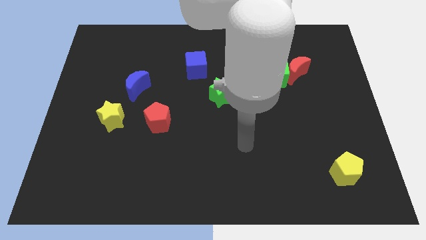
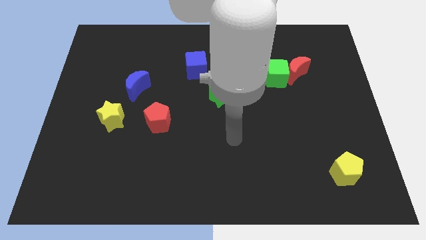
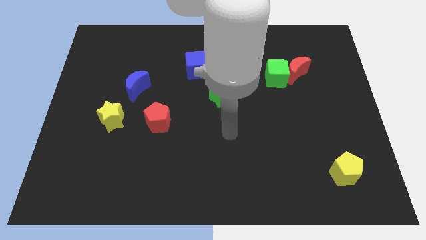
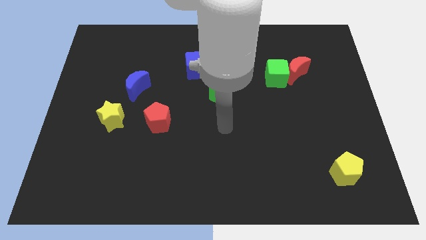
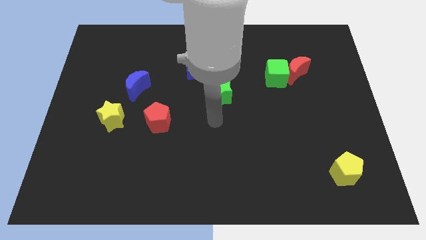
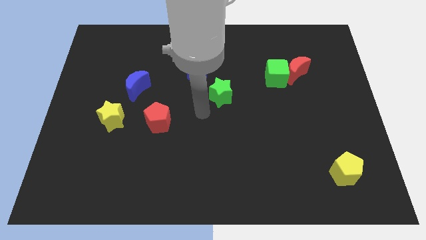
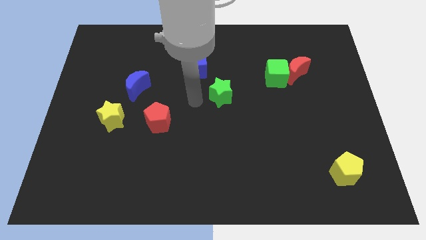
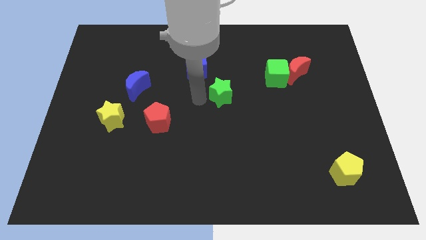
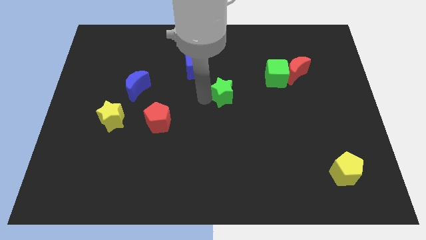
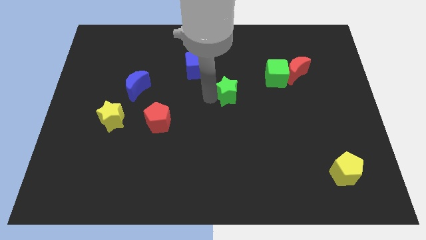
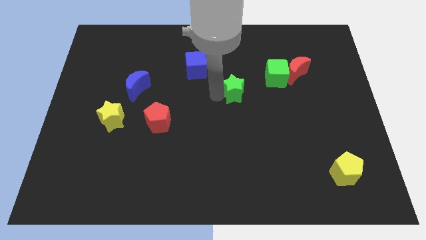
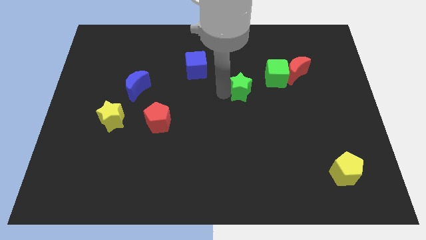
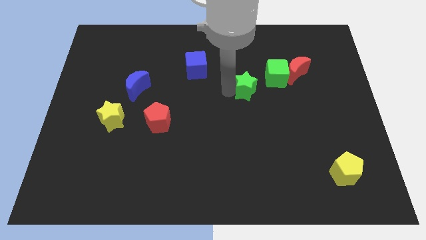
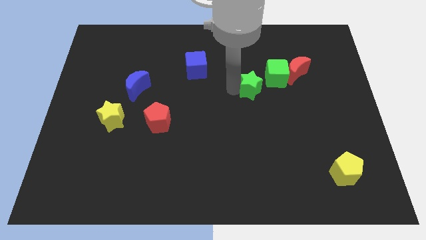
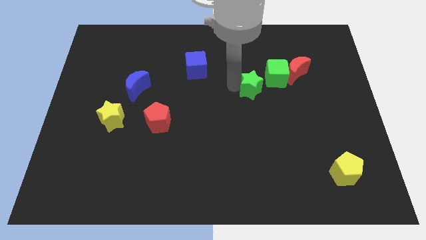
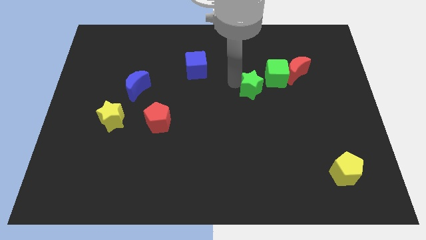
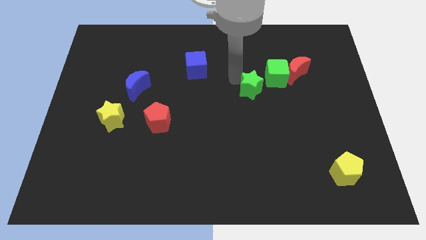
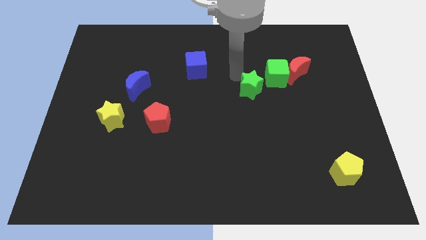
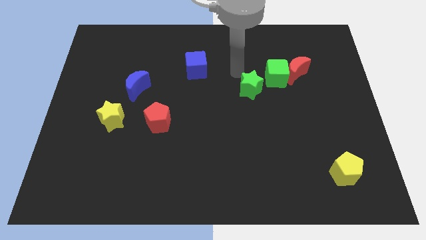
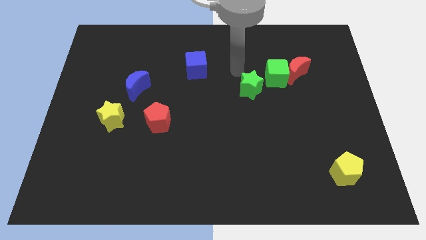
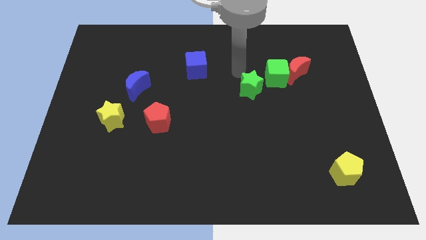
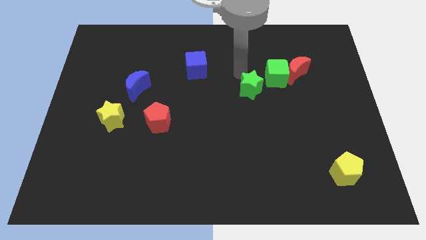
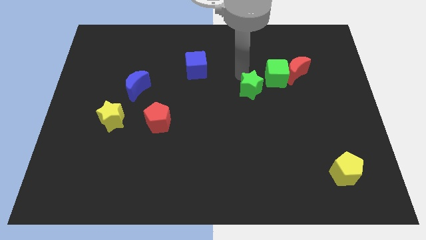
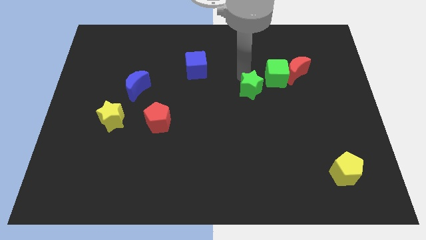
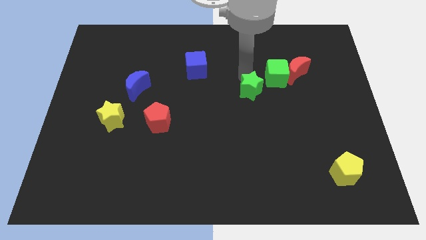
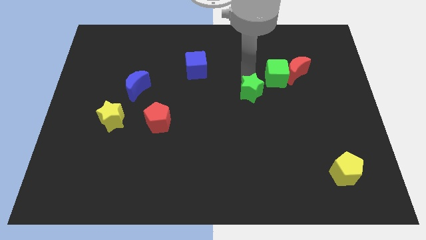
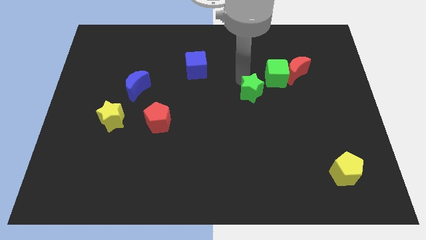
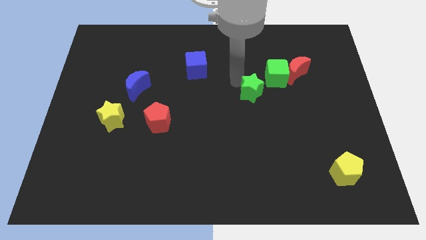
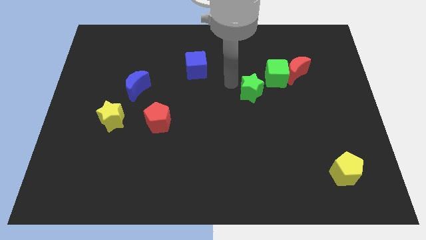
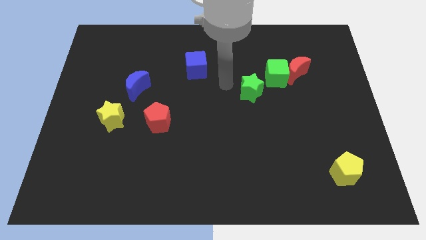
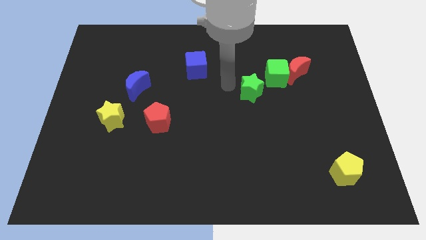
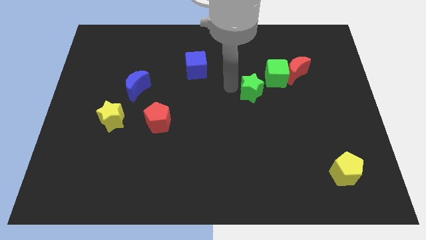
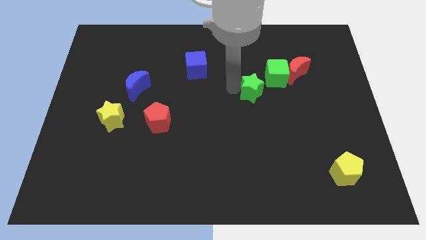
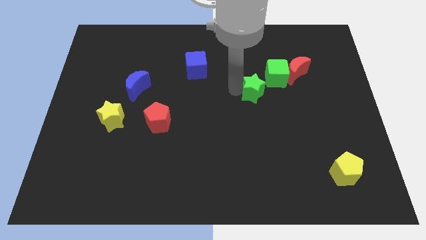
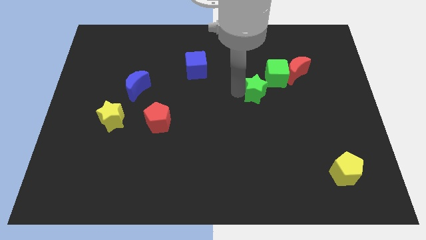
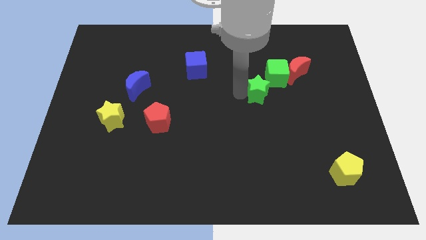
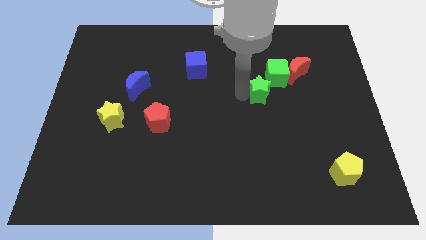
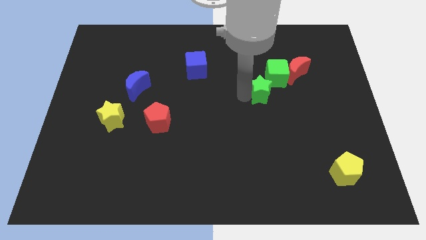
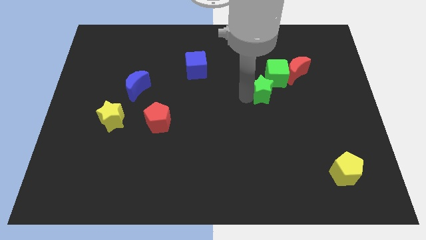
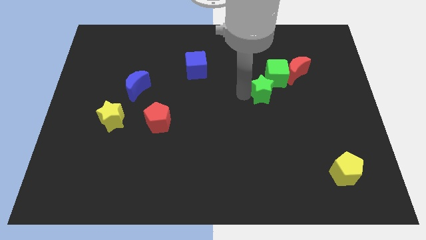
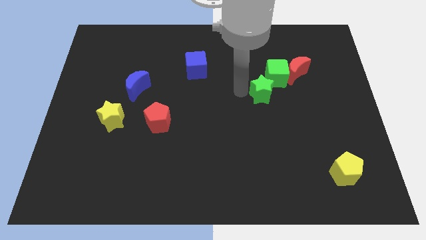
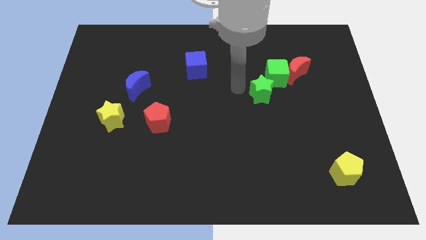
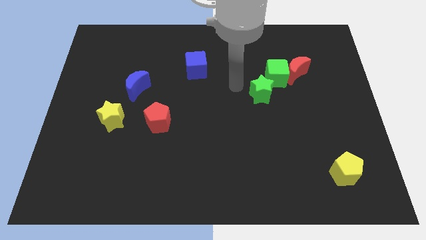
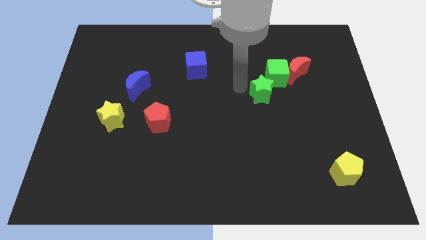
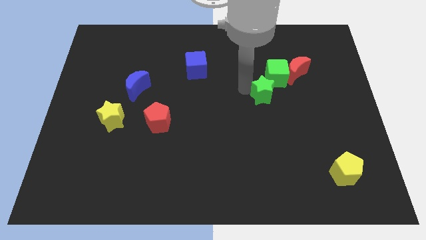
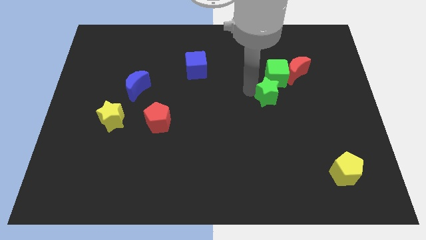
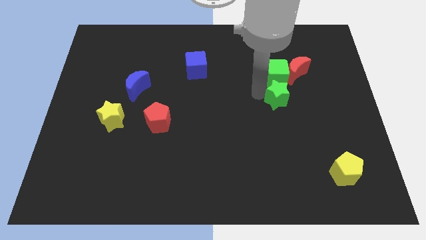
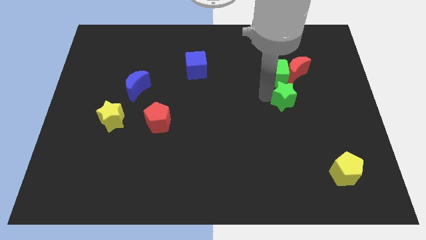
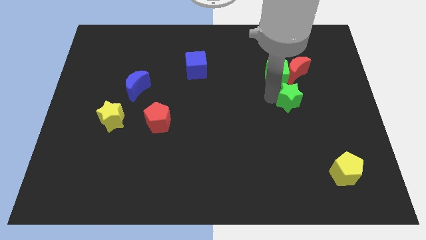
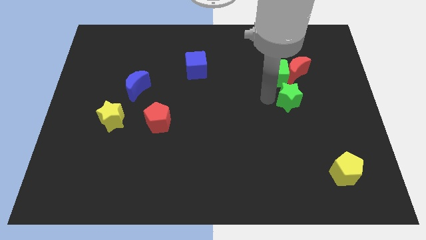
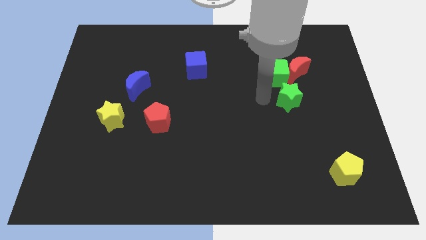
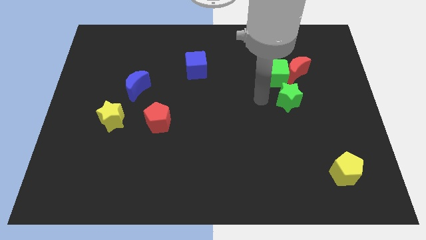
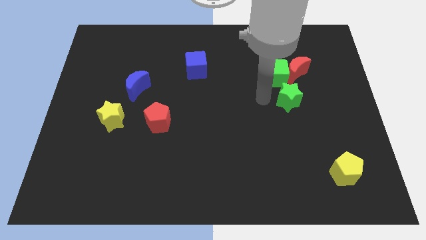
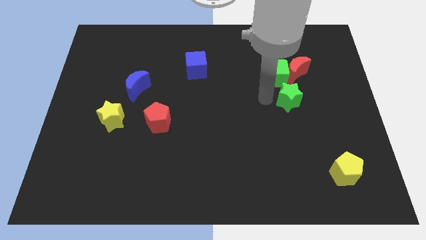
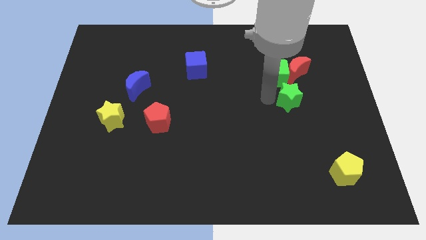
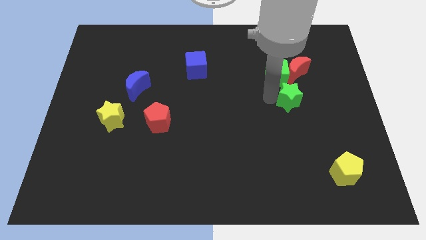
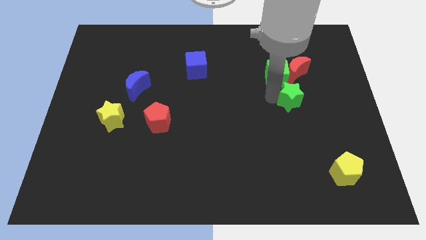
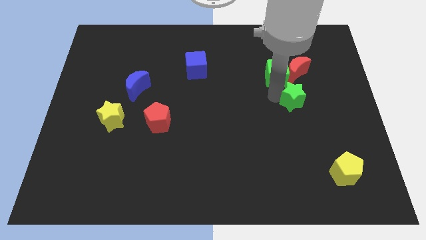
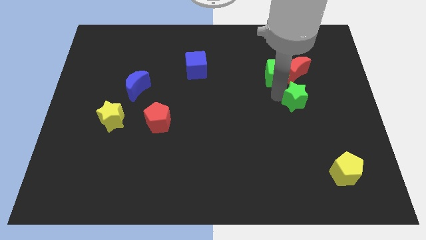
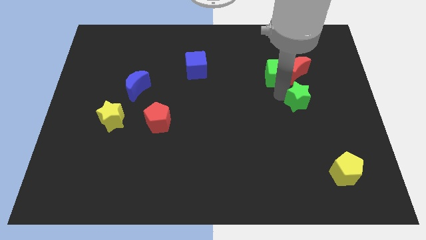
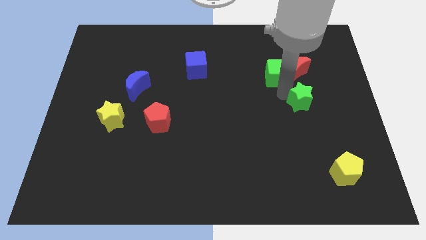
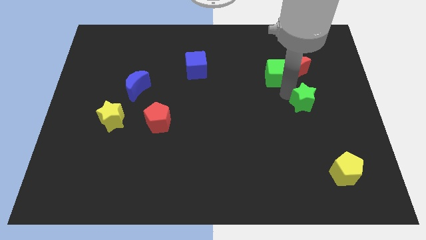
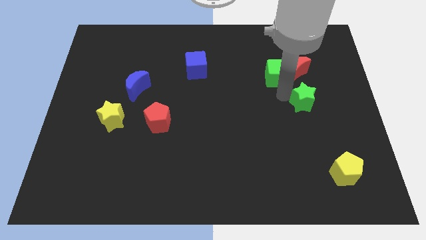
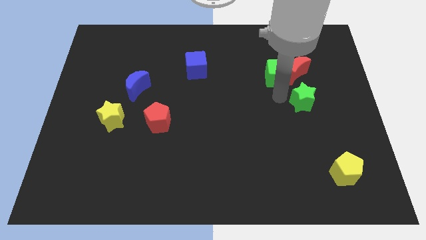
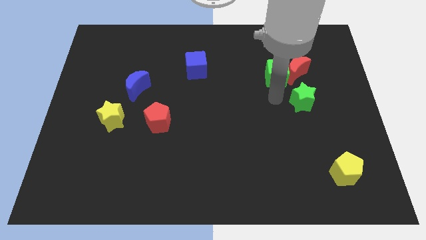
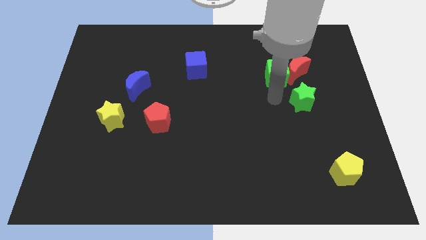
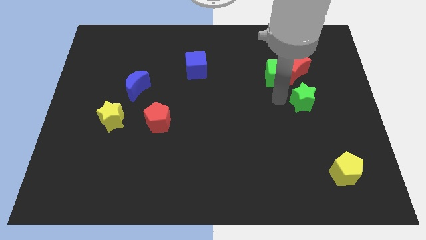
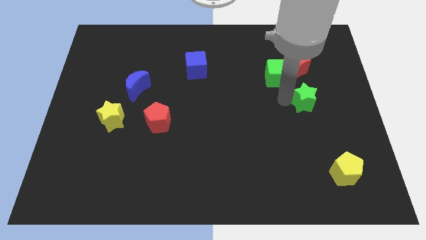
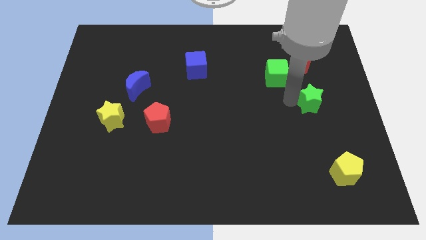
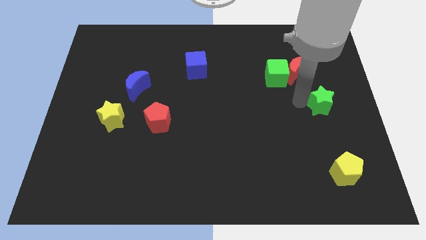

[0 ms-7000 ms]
push the green star to the center right
